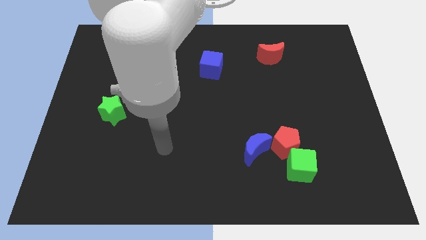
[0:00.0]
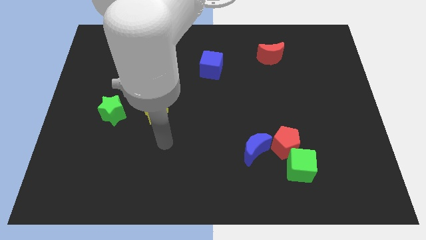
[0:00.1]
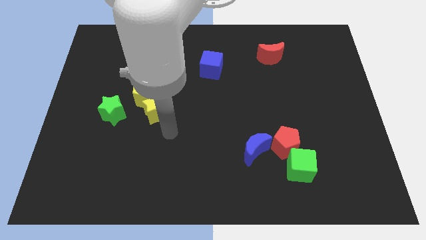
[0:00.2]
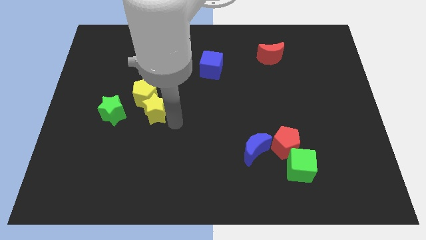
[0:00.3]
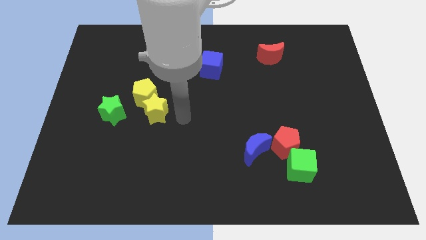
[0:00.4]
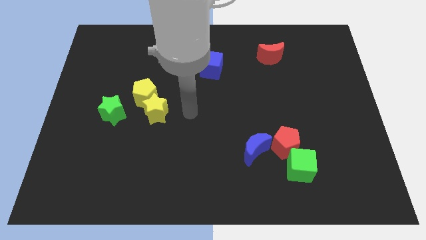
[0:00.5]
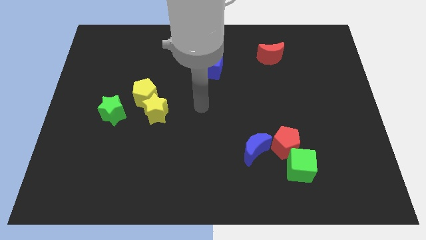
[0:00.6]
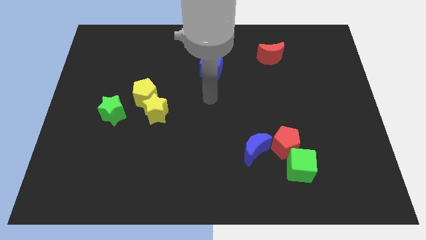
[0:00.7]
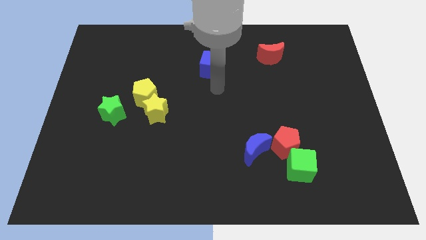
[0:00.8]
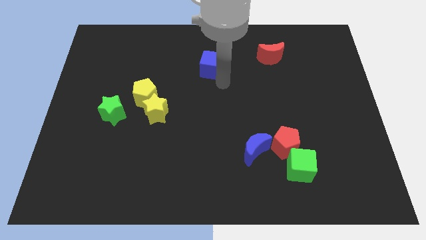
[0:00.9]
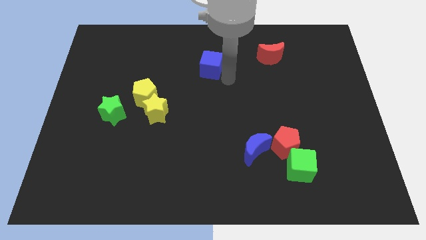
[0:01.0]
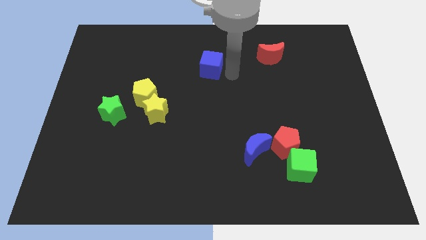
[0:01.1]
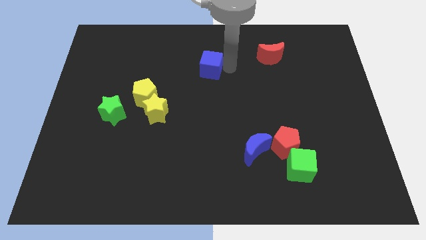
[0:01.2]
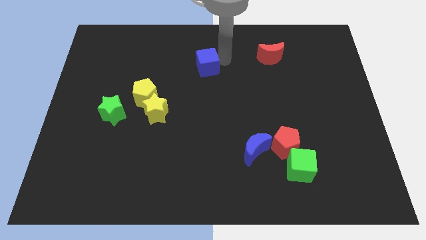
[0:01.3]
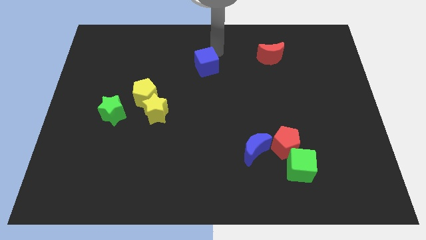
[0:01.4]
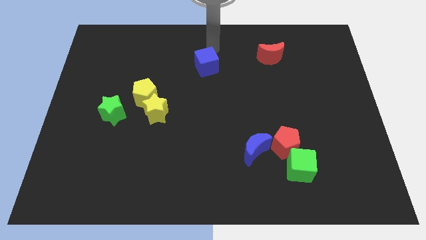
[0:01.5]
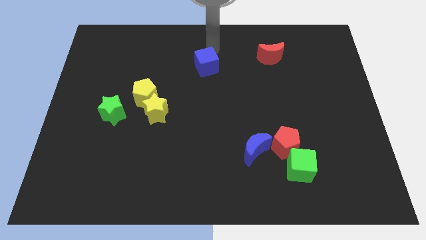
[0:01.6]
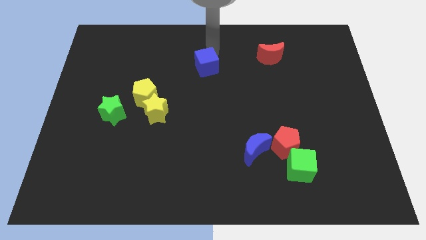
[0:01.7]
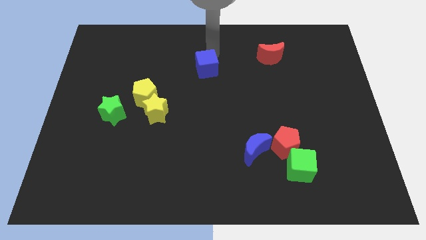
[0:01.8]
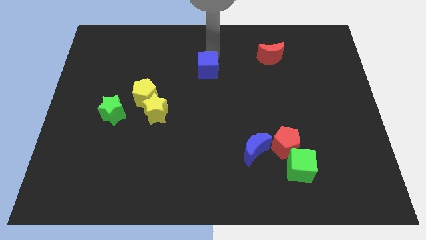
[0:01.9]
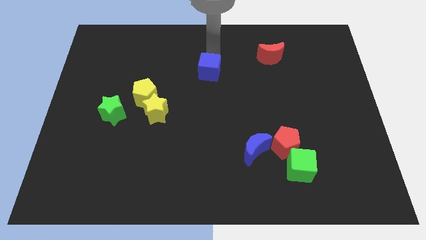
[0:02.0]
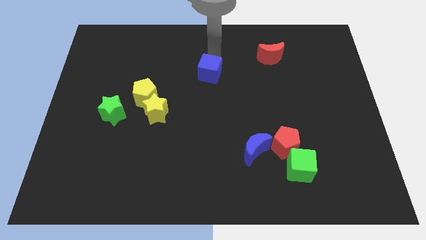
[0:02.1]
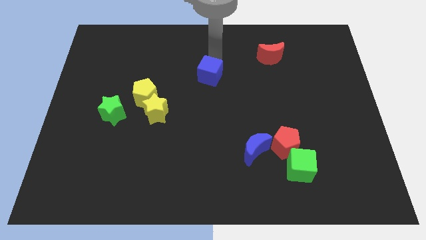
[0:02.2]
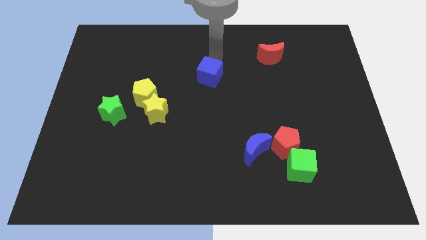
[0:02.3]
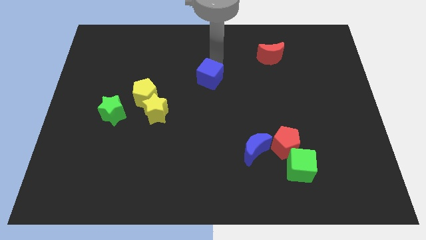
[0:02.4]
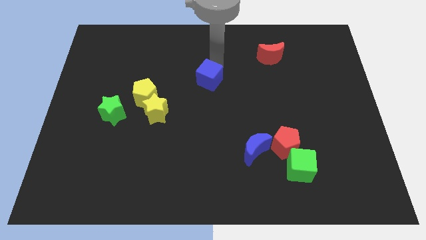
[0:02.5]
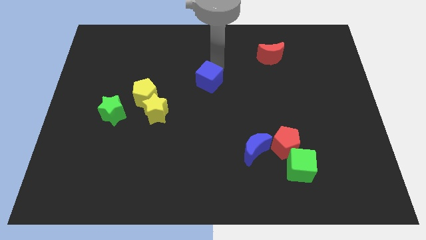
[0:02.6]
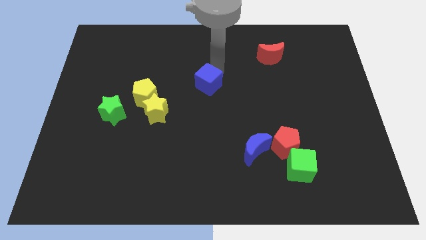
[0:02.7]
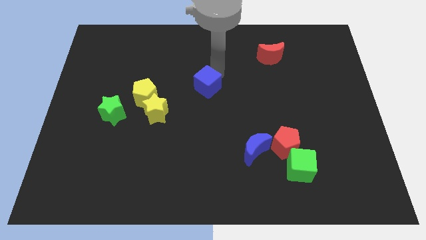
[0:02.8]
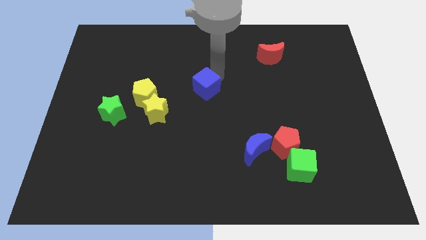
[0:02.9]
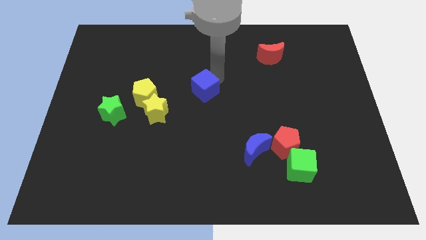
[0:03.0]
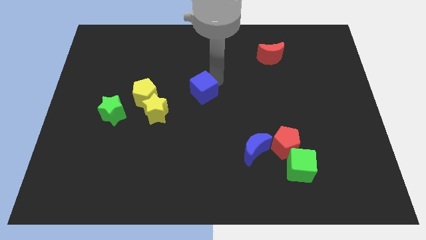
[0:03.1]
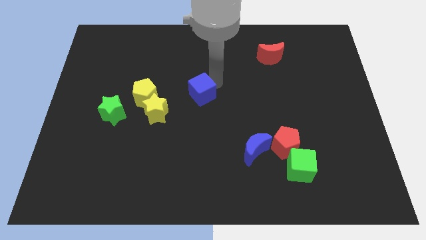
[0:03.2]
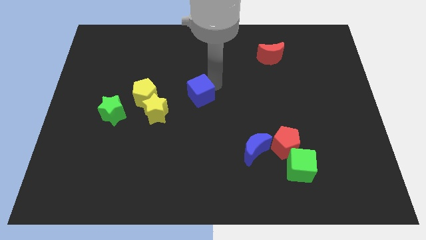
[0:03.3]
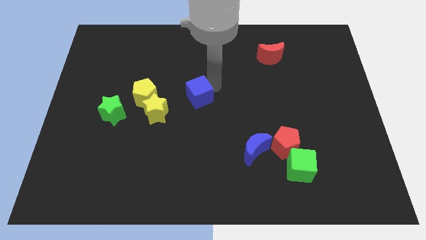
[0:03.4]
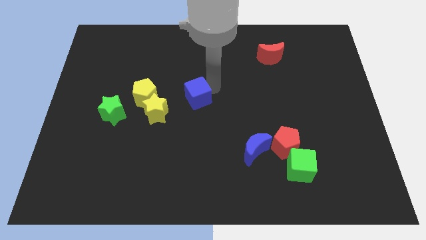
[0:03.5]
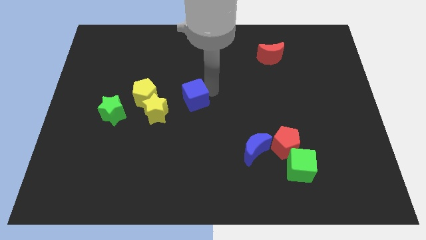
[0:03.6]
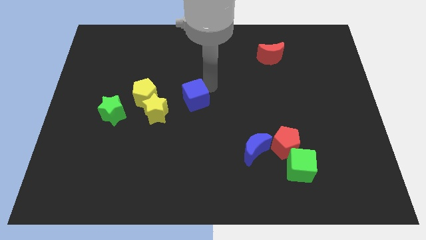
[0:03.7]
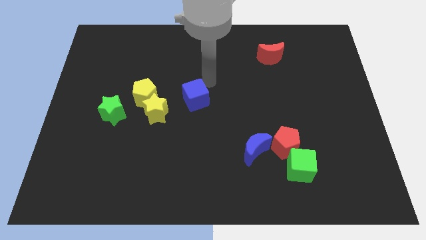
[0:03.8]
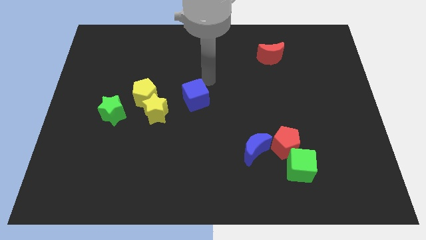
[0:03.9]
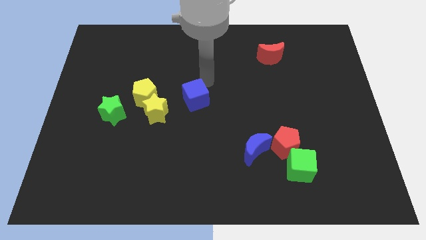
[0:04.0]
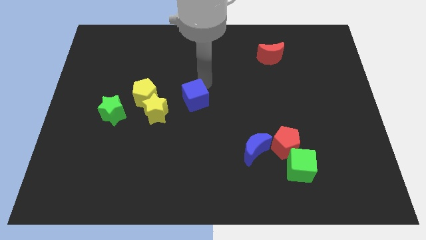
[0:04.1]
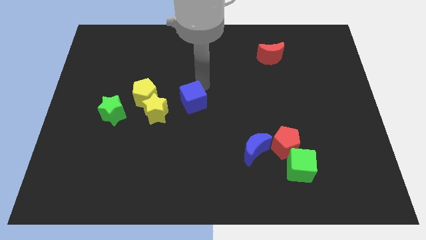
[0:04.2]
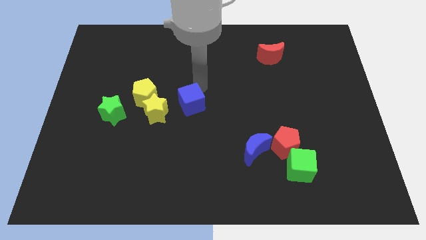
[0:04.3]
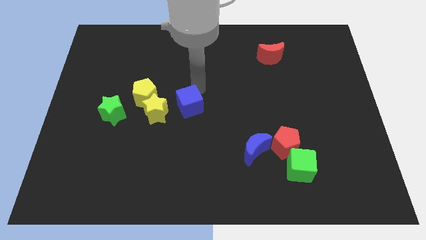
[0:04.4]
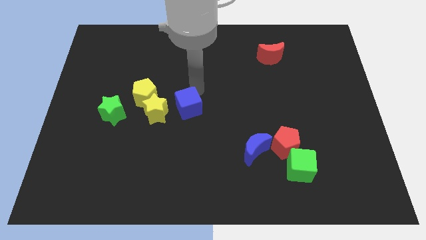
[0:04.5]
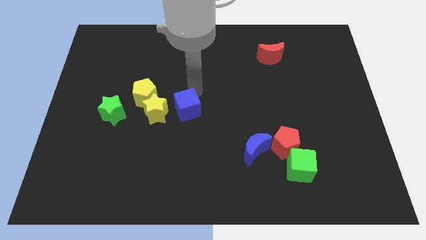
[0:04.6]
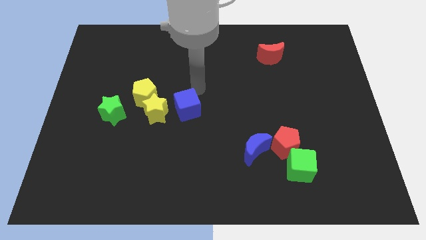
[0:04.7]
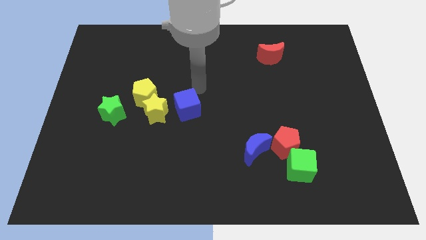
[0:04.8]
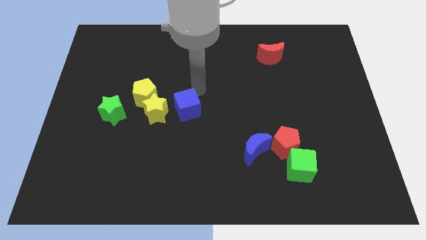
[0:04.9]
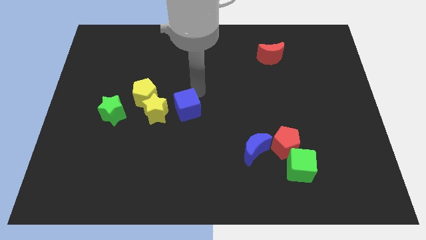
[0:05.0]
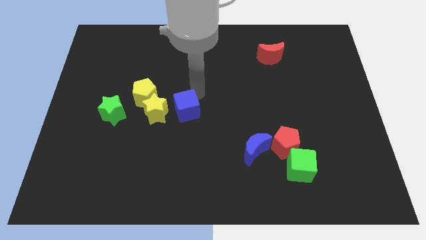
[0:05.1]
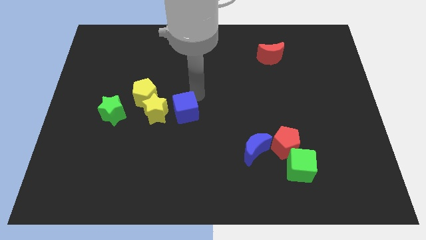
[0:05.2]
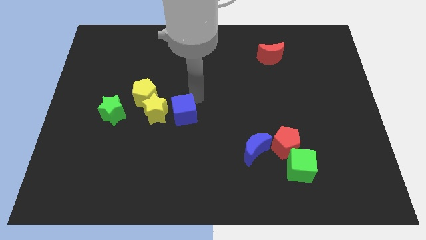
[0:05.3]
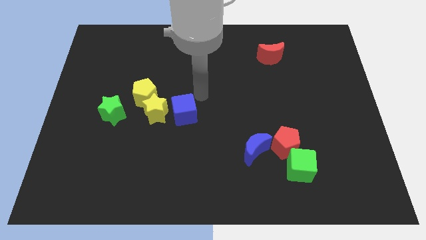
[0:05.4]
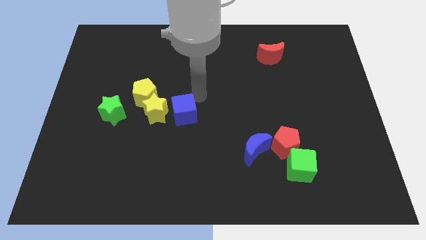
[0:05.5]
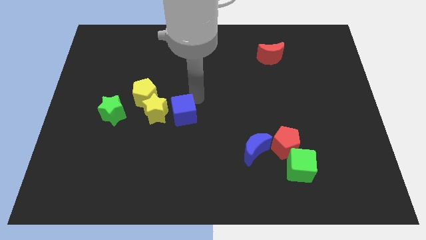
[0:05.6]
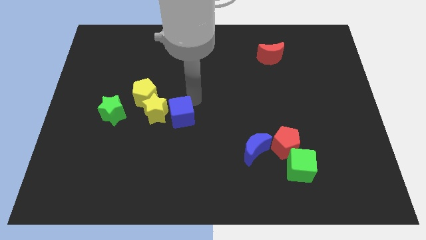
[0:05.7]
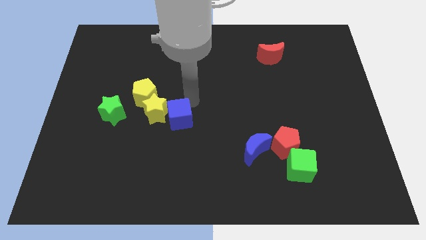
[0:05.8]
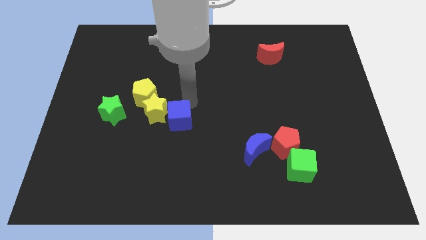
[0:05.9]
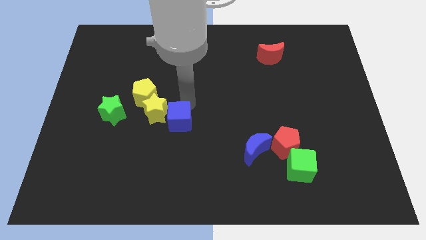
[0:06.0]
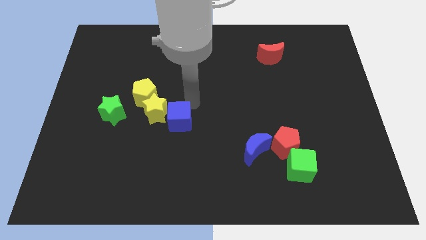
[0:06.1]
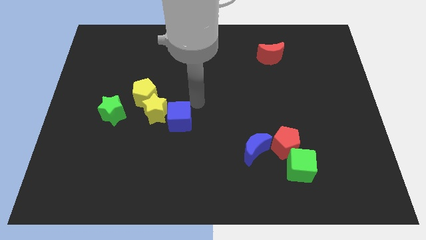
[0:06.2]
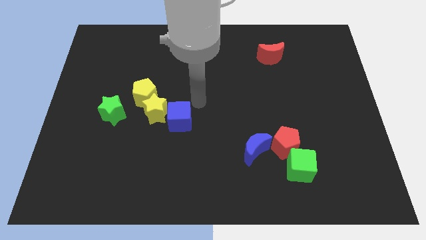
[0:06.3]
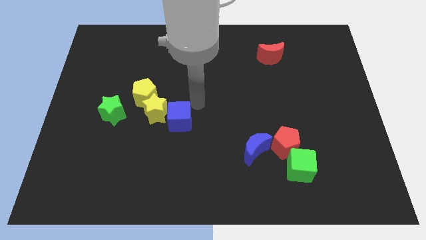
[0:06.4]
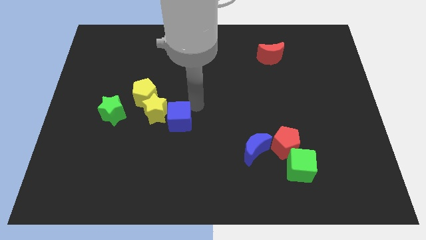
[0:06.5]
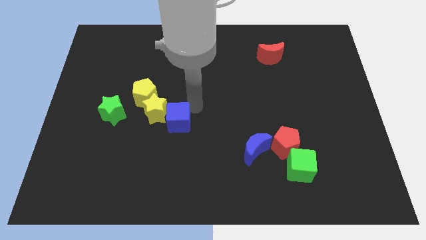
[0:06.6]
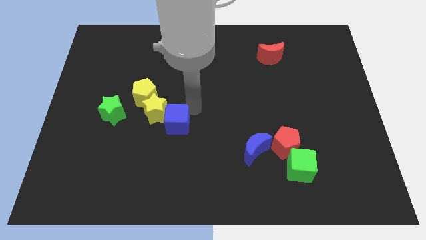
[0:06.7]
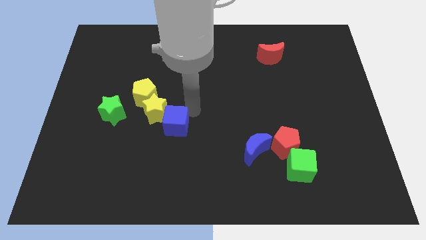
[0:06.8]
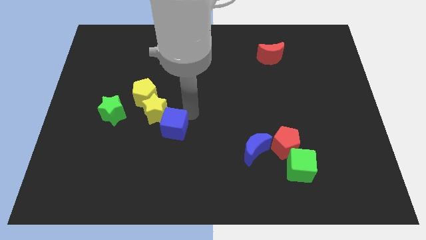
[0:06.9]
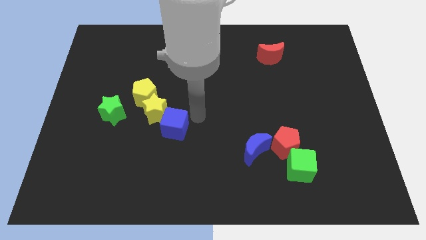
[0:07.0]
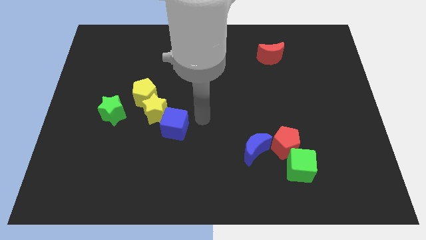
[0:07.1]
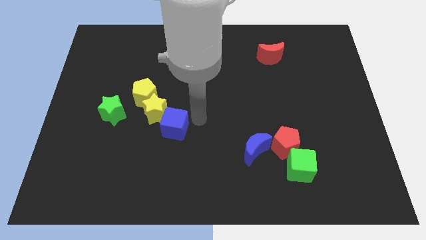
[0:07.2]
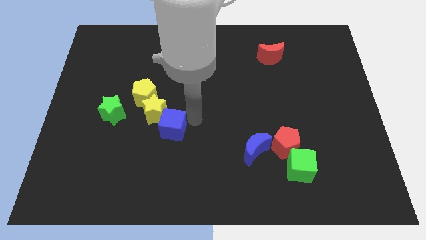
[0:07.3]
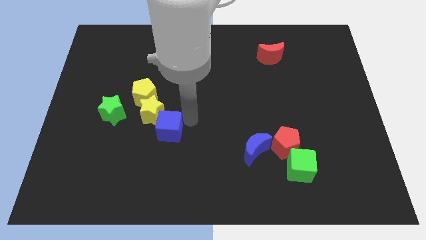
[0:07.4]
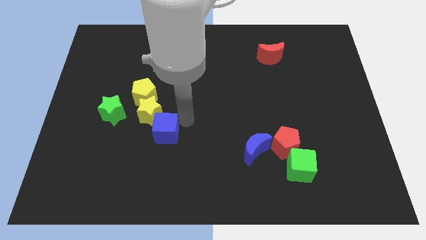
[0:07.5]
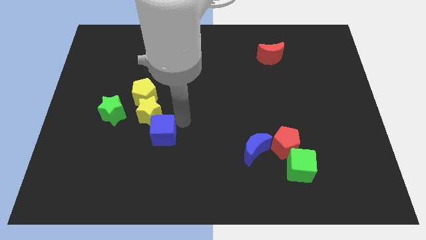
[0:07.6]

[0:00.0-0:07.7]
move the blue cube down and left

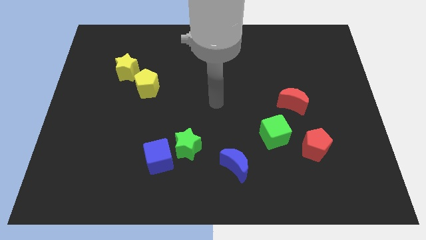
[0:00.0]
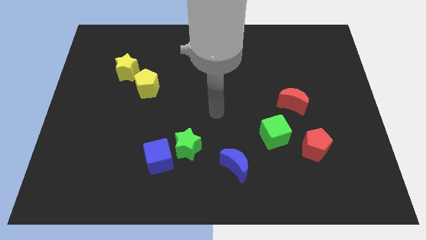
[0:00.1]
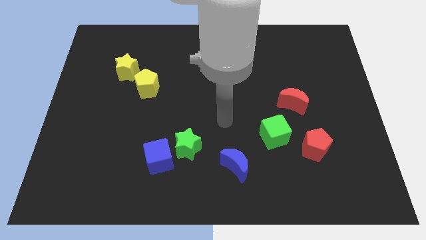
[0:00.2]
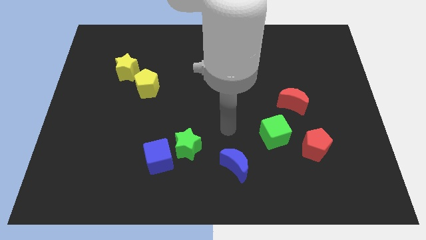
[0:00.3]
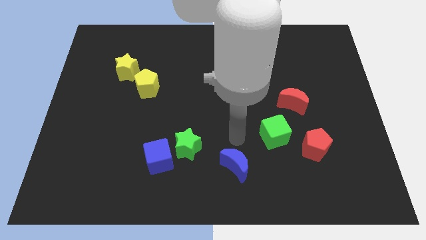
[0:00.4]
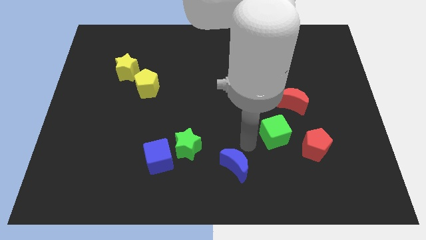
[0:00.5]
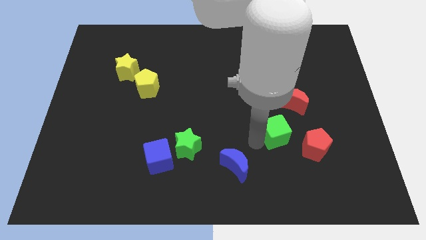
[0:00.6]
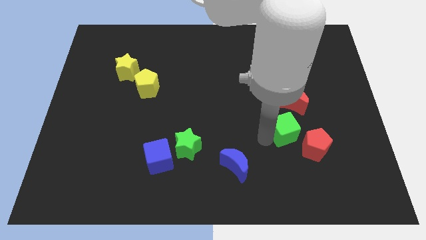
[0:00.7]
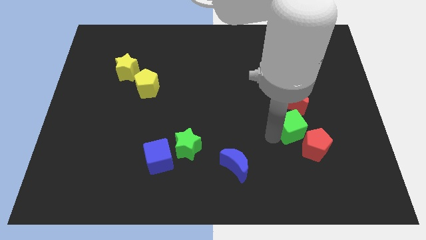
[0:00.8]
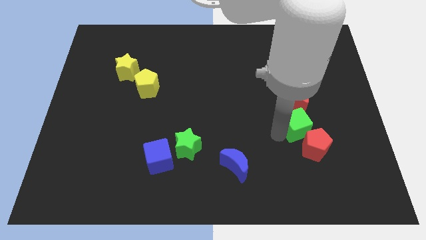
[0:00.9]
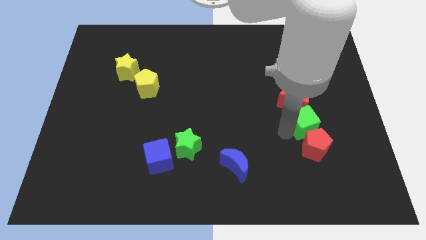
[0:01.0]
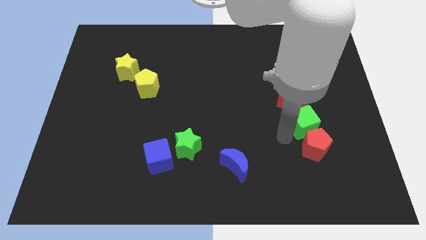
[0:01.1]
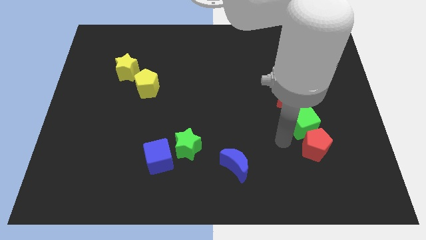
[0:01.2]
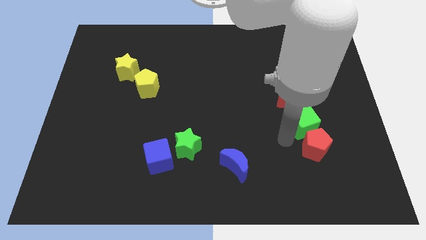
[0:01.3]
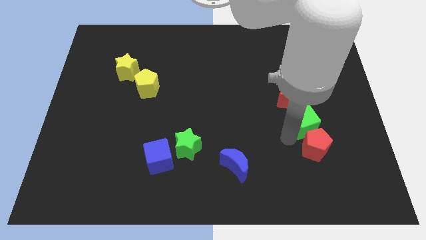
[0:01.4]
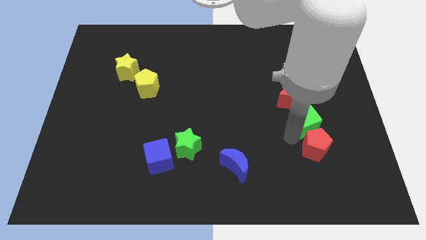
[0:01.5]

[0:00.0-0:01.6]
slightly move the green cube diagonally upwards and right
